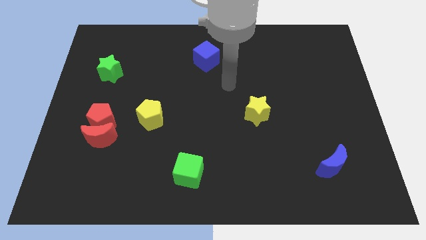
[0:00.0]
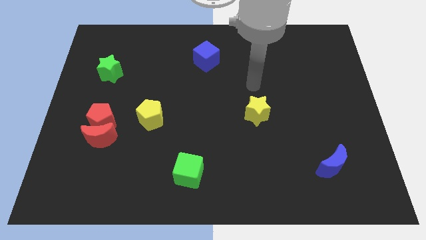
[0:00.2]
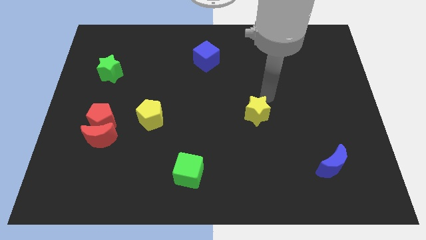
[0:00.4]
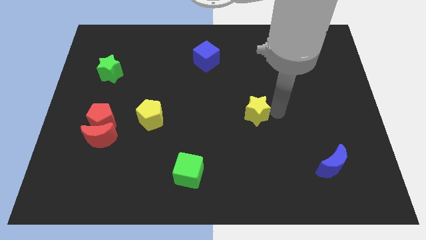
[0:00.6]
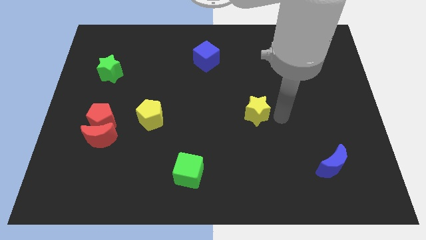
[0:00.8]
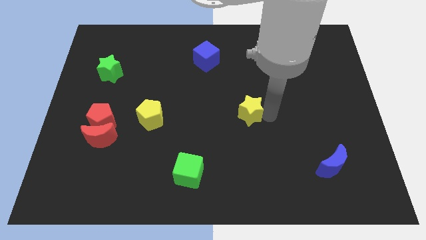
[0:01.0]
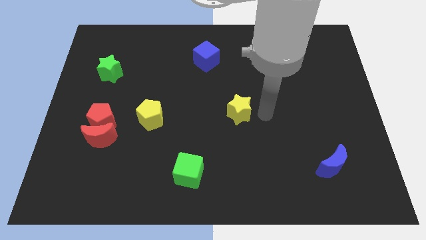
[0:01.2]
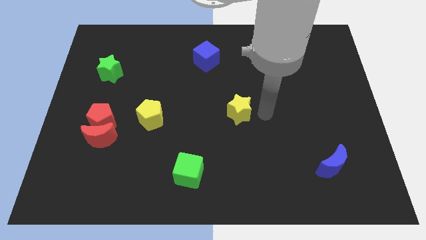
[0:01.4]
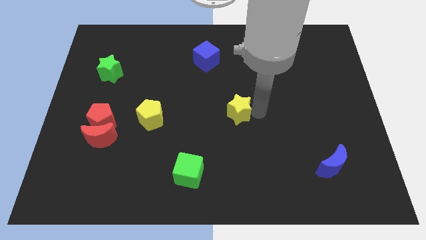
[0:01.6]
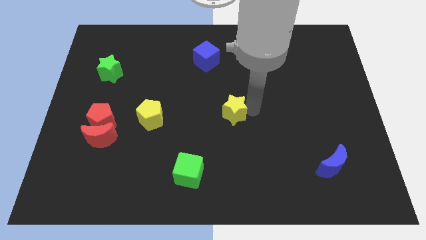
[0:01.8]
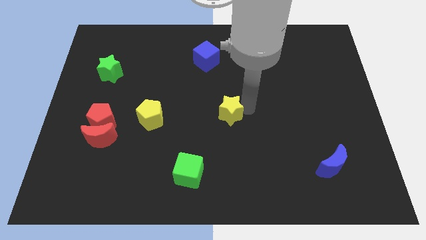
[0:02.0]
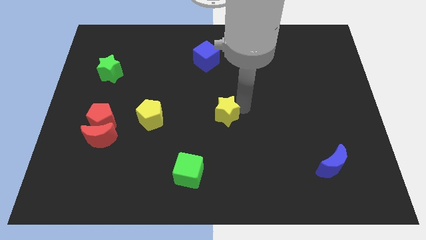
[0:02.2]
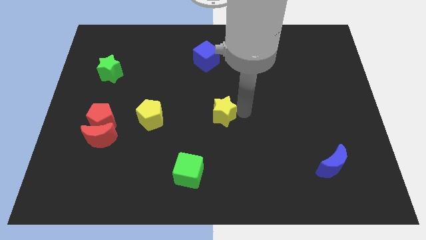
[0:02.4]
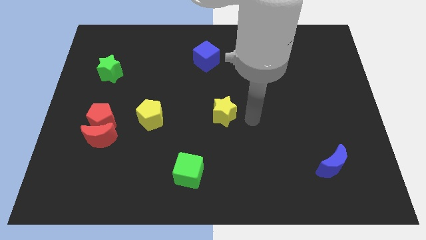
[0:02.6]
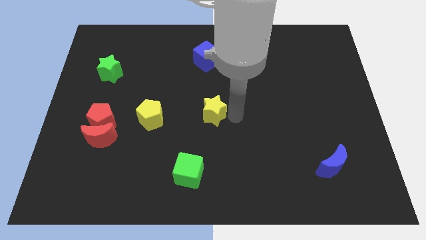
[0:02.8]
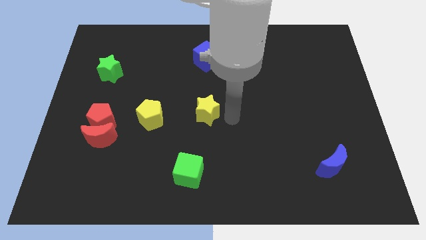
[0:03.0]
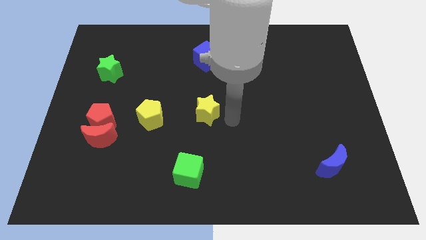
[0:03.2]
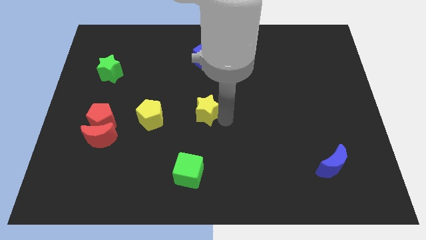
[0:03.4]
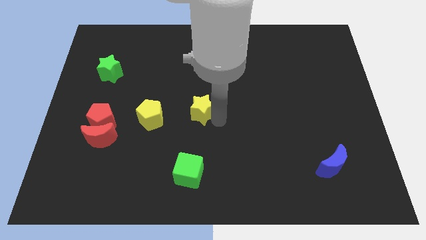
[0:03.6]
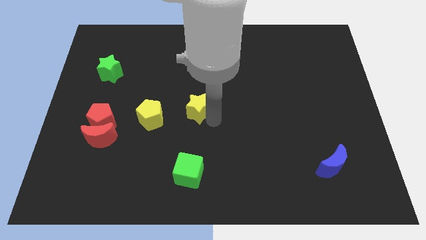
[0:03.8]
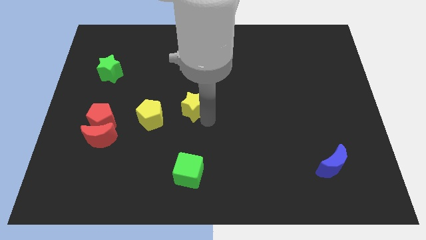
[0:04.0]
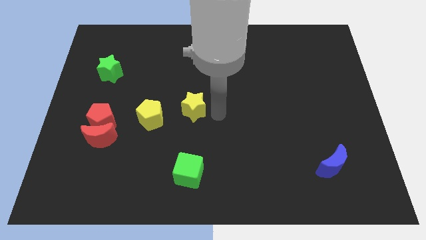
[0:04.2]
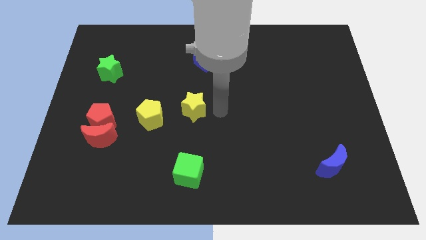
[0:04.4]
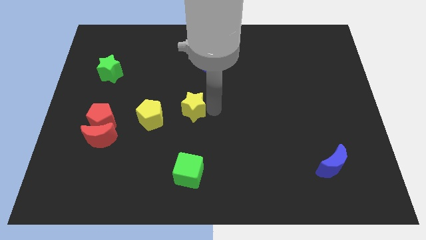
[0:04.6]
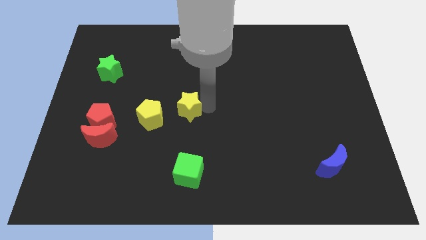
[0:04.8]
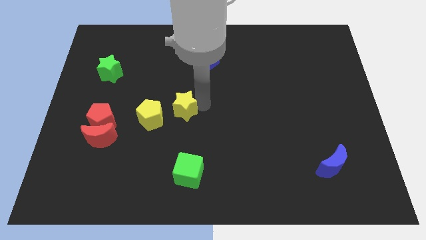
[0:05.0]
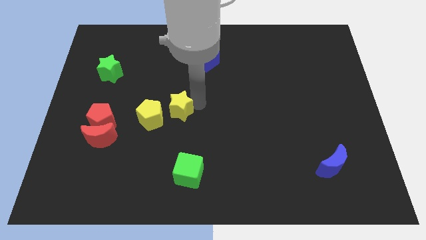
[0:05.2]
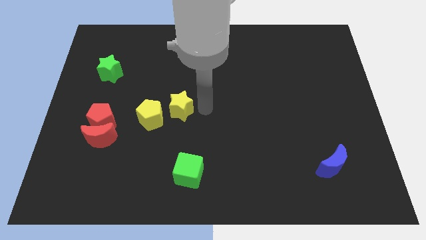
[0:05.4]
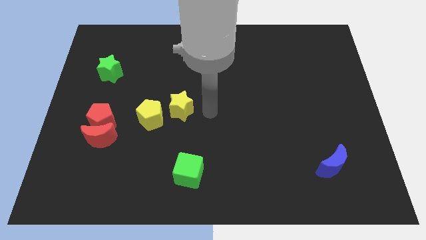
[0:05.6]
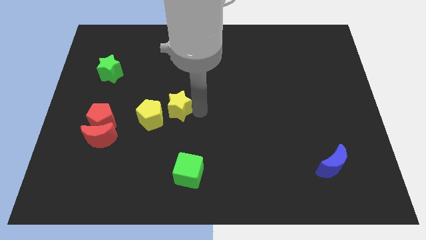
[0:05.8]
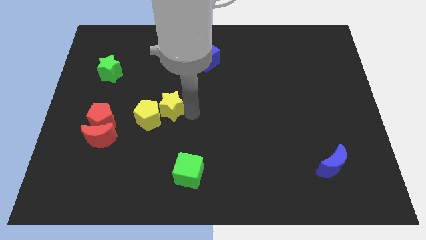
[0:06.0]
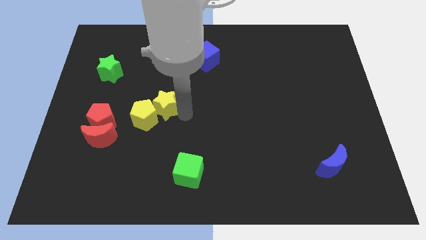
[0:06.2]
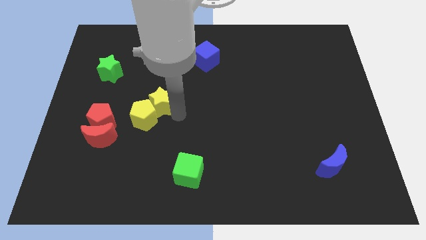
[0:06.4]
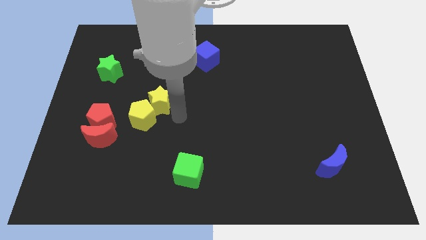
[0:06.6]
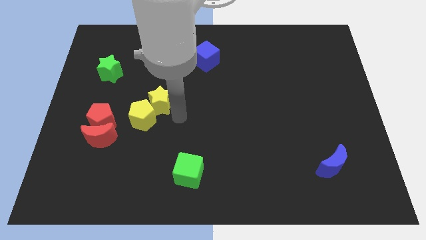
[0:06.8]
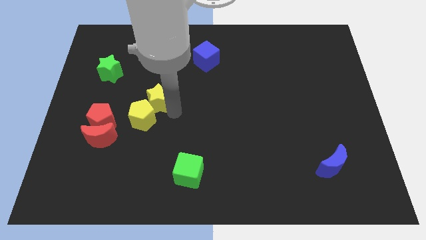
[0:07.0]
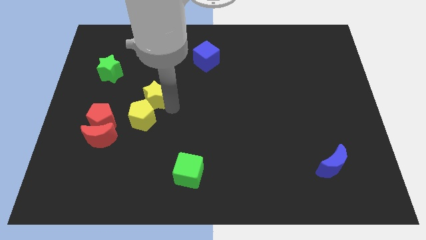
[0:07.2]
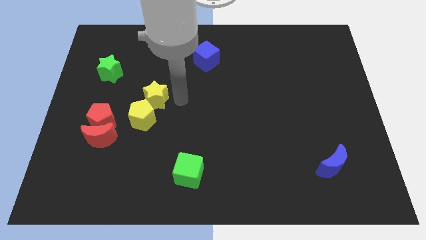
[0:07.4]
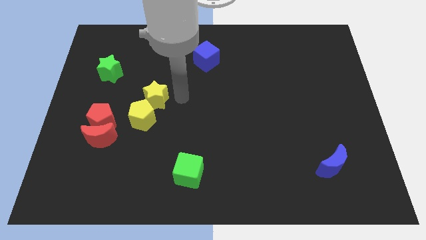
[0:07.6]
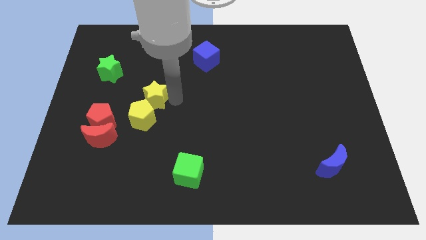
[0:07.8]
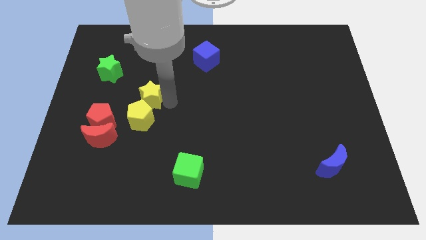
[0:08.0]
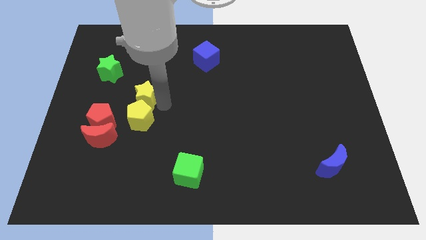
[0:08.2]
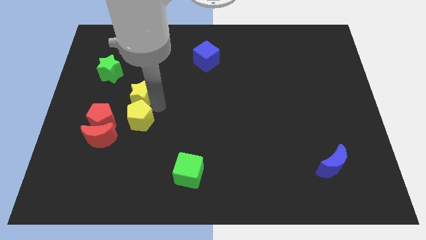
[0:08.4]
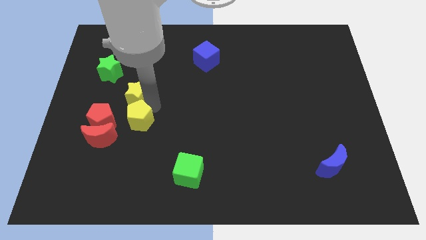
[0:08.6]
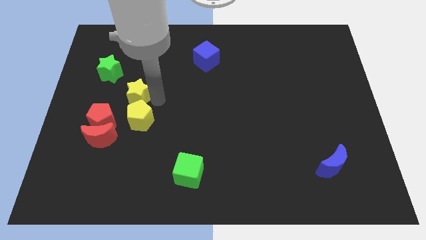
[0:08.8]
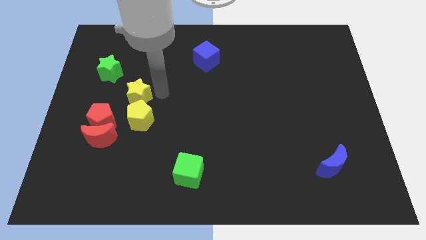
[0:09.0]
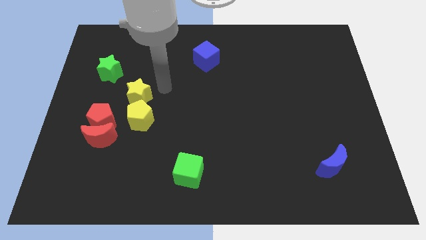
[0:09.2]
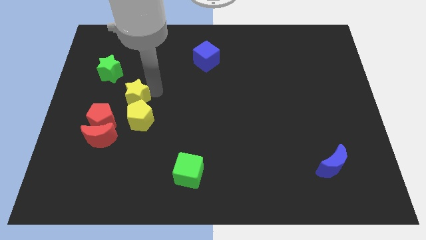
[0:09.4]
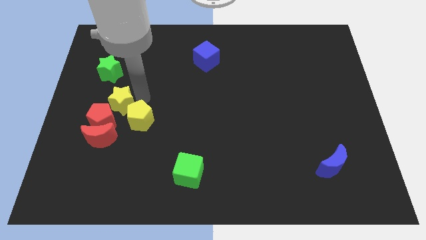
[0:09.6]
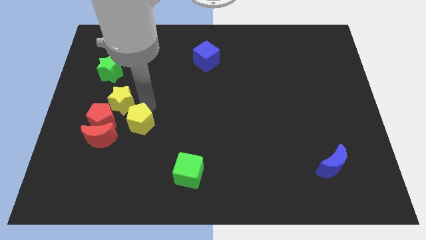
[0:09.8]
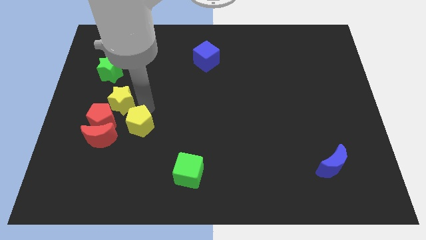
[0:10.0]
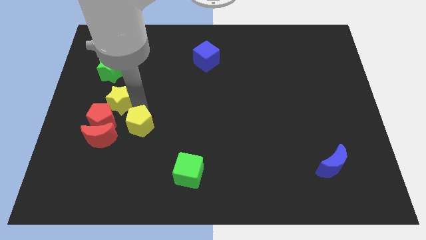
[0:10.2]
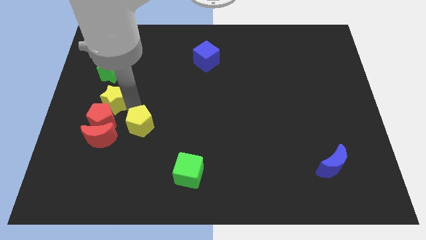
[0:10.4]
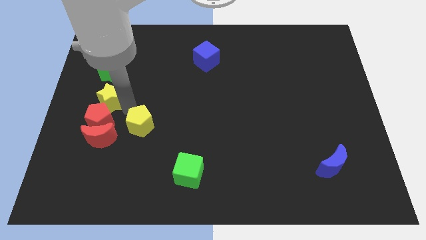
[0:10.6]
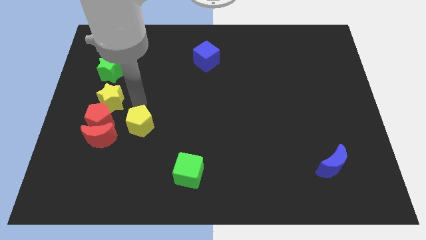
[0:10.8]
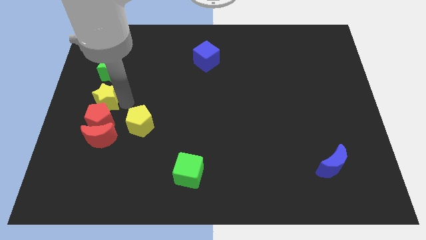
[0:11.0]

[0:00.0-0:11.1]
move the yellow star to the center left

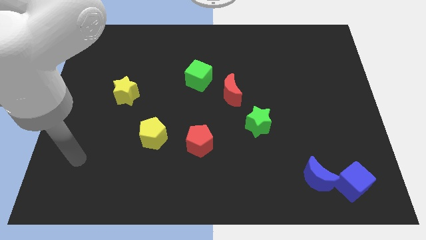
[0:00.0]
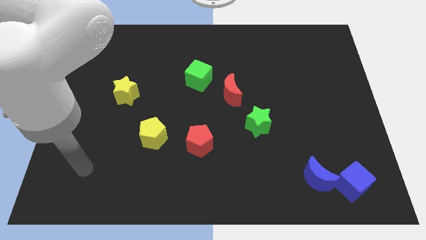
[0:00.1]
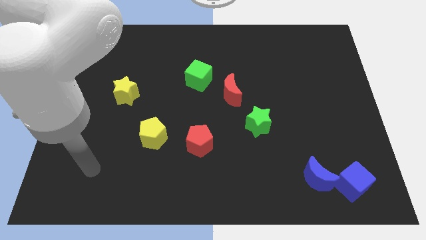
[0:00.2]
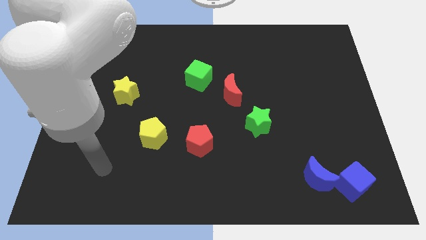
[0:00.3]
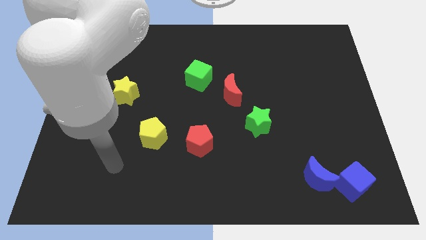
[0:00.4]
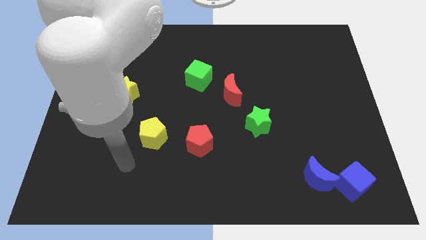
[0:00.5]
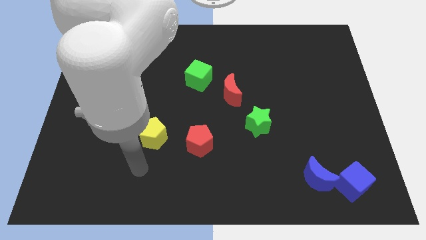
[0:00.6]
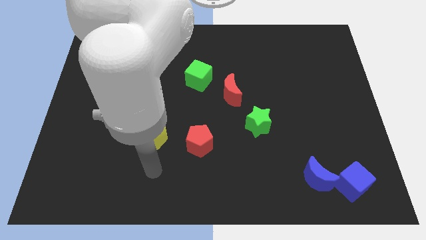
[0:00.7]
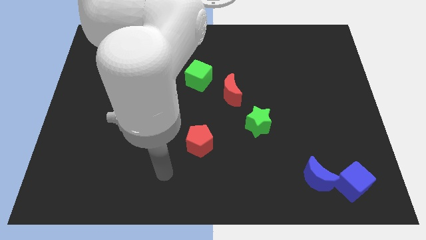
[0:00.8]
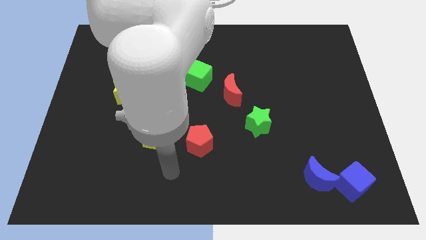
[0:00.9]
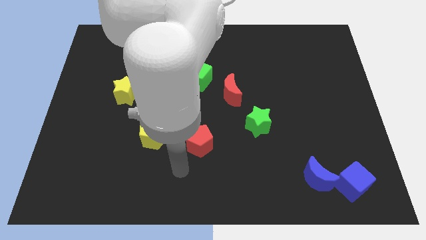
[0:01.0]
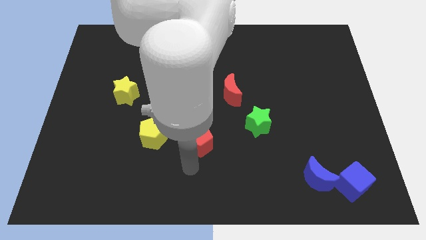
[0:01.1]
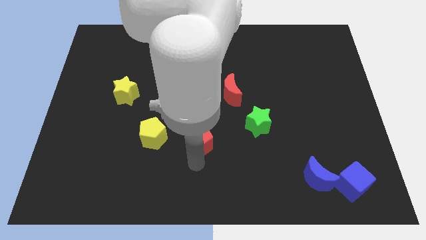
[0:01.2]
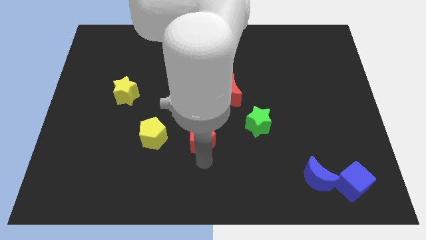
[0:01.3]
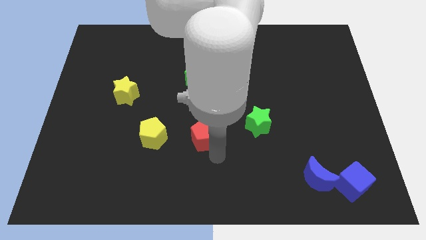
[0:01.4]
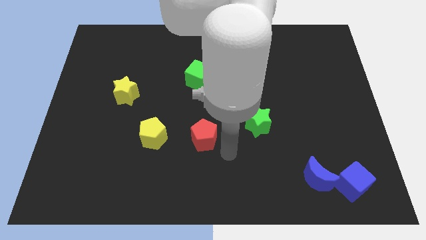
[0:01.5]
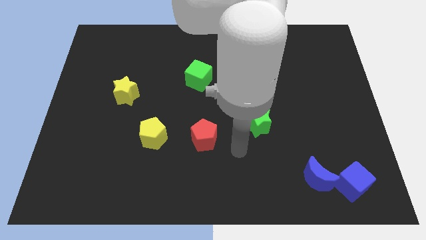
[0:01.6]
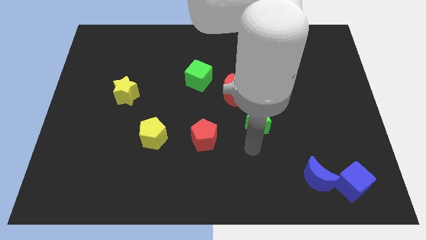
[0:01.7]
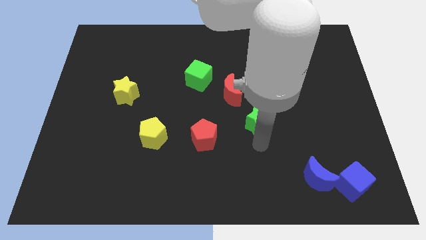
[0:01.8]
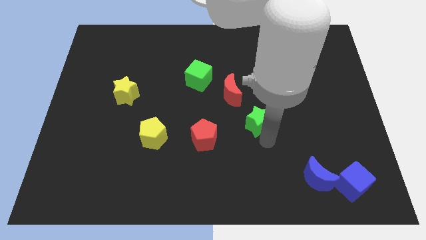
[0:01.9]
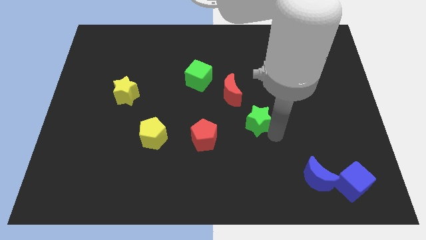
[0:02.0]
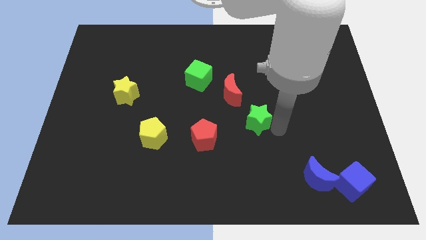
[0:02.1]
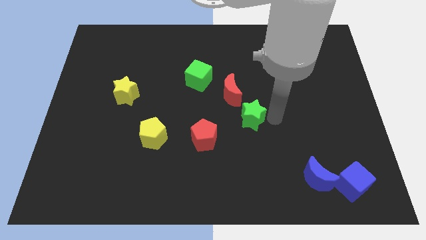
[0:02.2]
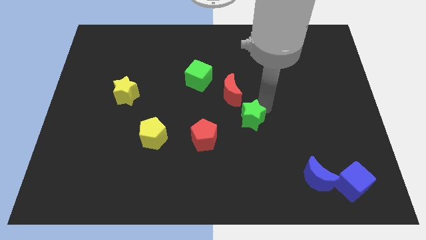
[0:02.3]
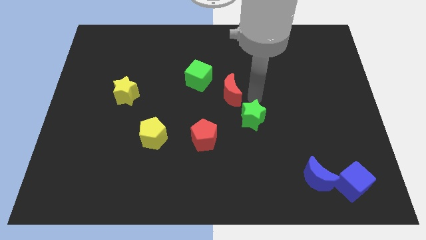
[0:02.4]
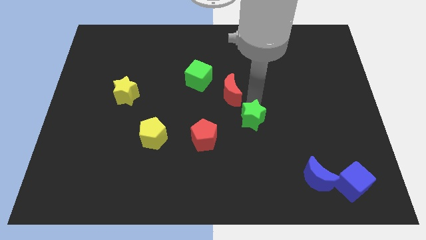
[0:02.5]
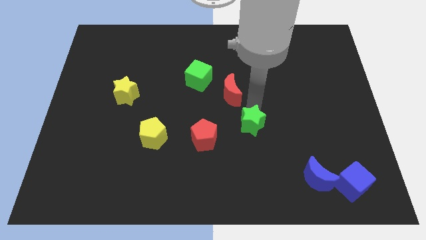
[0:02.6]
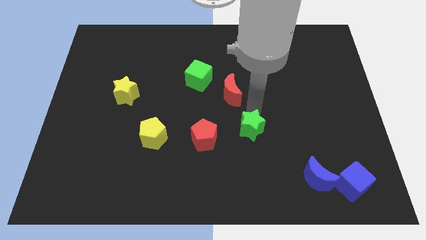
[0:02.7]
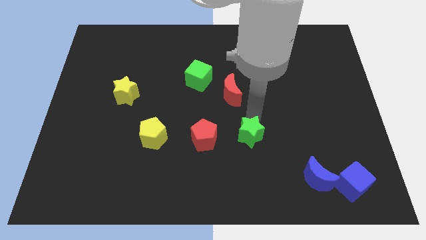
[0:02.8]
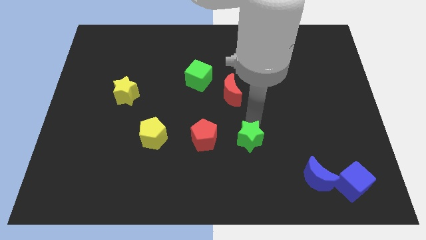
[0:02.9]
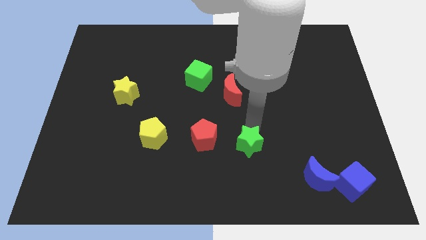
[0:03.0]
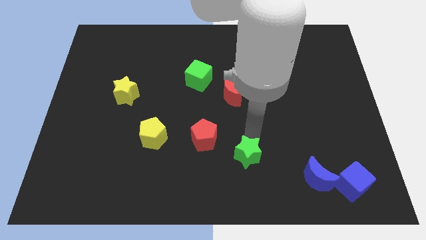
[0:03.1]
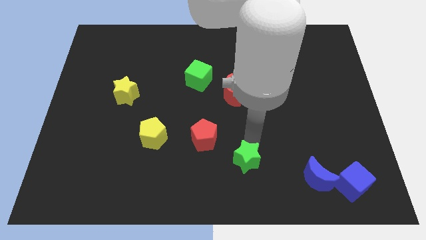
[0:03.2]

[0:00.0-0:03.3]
move the green star to the bottom
